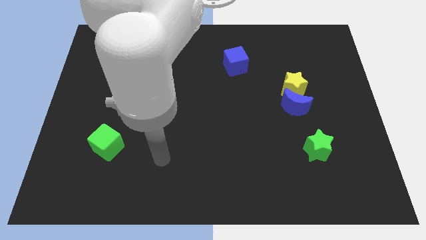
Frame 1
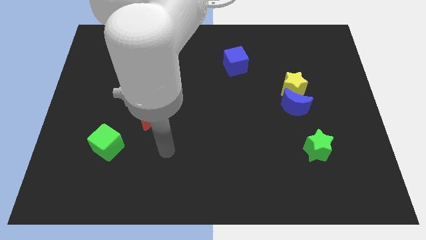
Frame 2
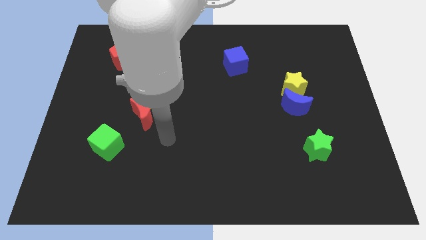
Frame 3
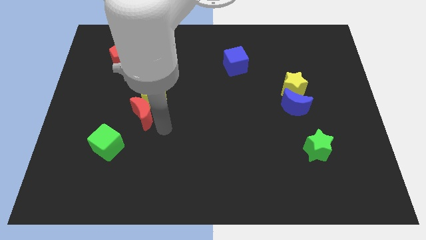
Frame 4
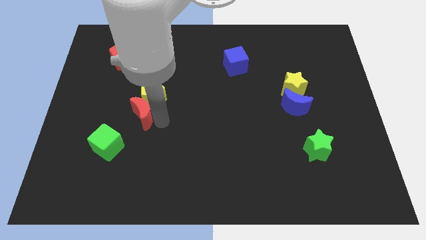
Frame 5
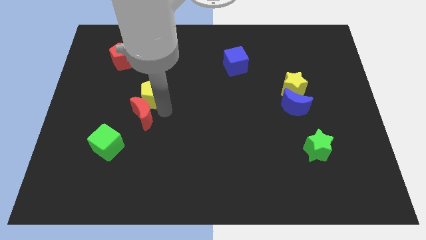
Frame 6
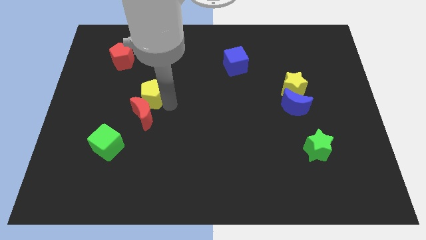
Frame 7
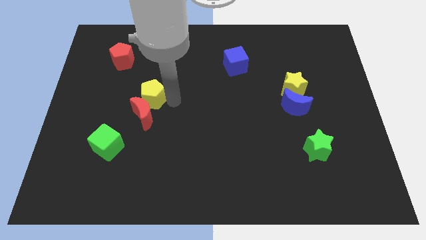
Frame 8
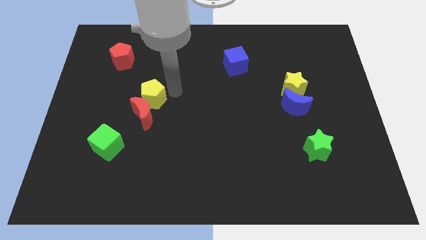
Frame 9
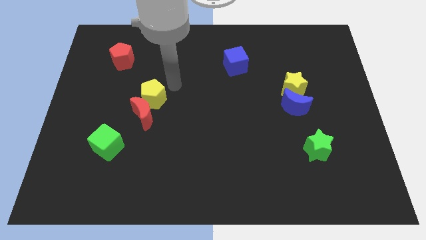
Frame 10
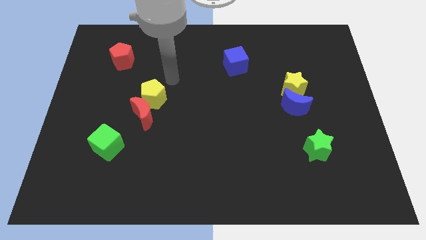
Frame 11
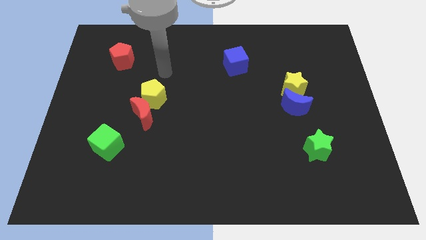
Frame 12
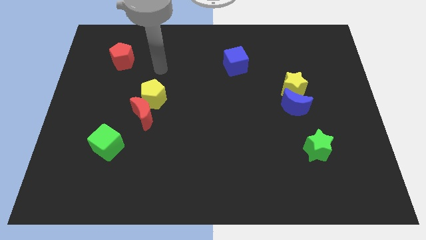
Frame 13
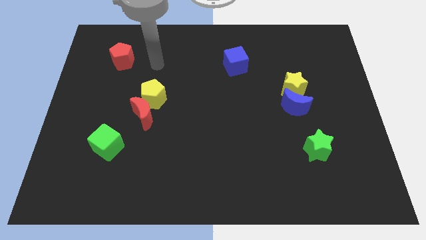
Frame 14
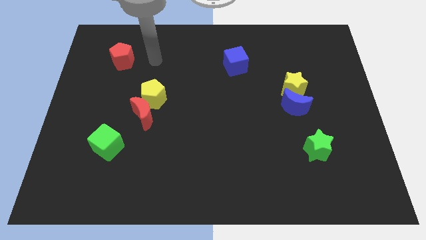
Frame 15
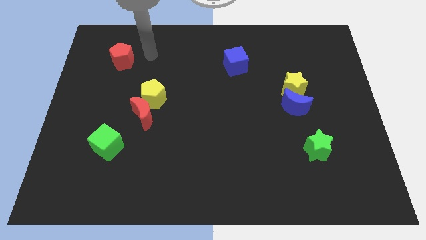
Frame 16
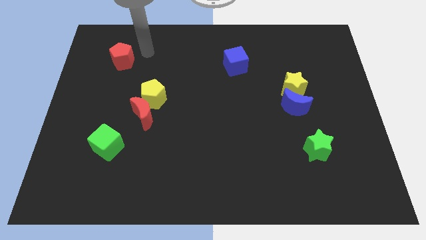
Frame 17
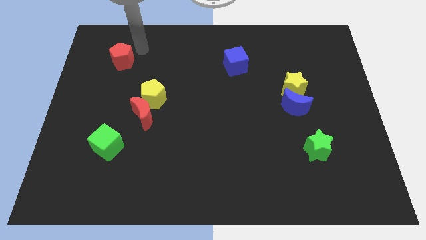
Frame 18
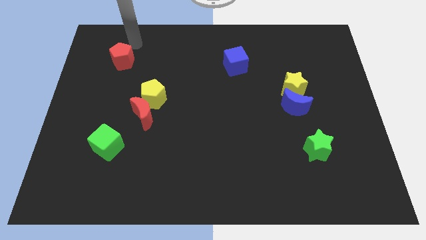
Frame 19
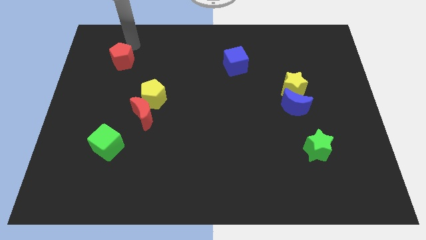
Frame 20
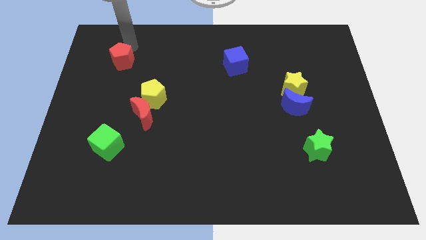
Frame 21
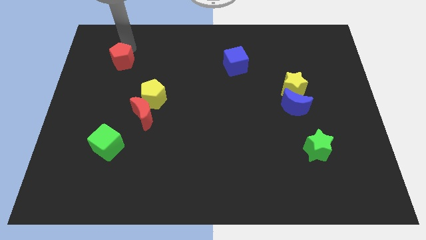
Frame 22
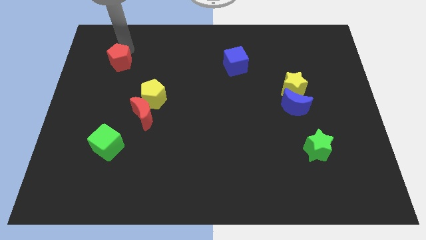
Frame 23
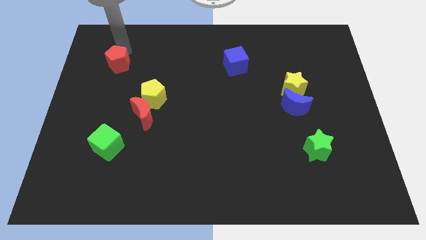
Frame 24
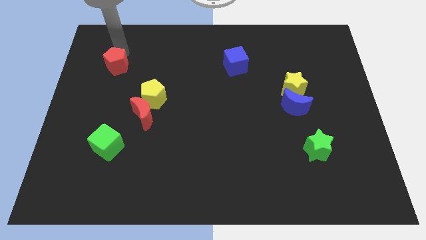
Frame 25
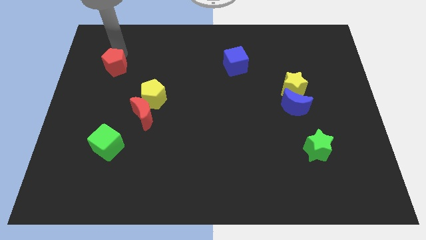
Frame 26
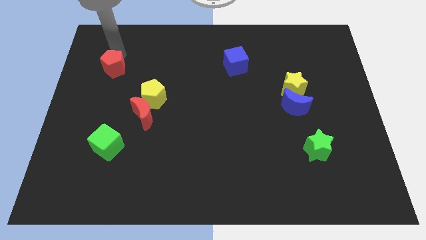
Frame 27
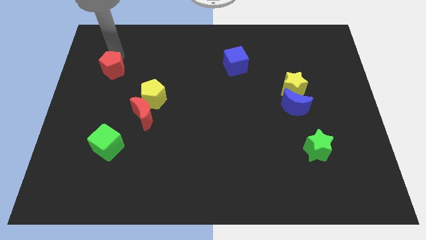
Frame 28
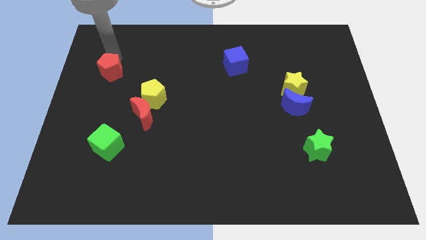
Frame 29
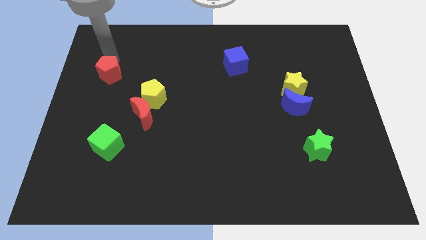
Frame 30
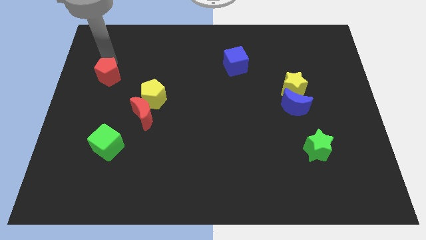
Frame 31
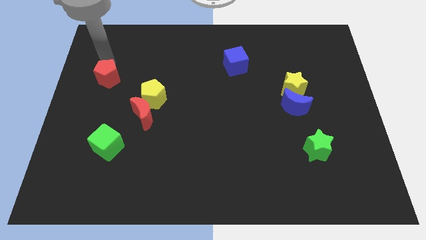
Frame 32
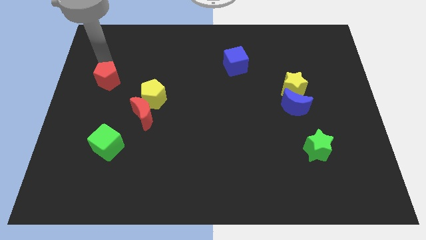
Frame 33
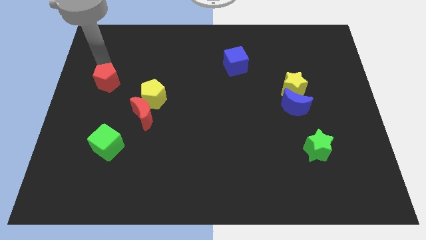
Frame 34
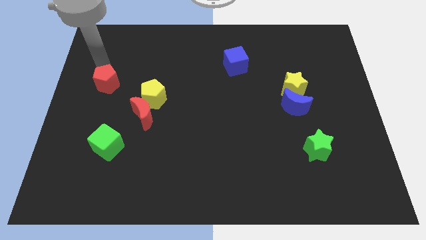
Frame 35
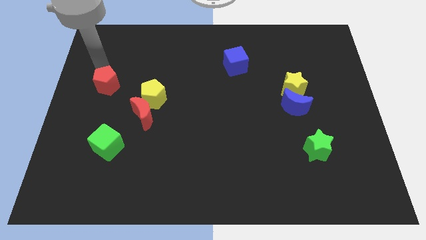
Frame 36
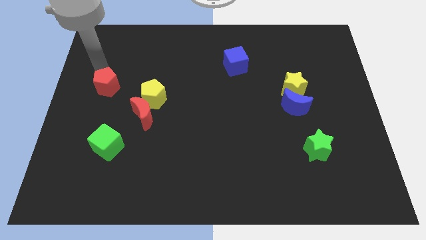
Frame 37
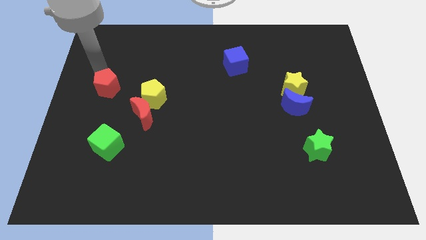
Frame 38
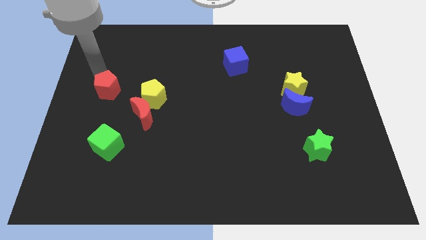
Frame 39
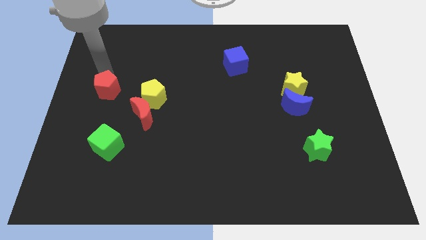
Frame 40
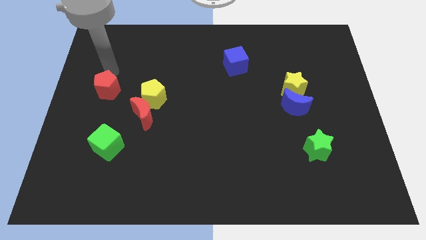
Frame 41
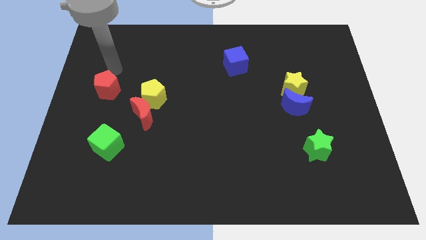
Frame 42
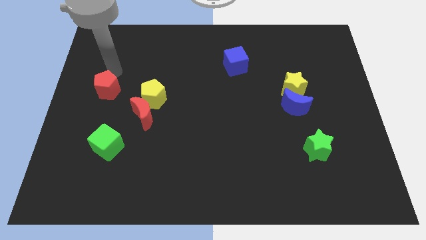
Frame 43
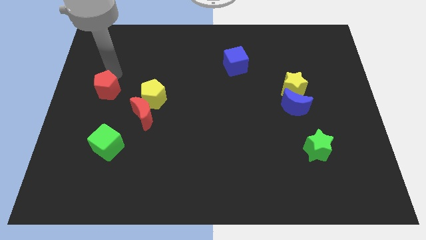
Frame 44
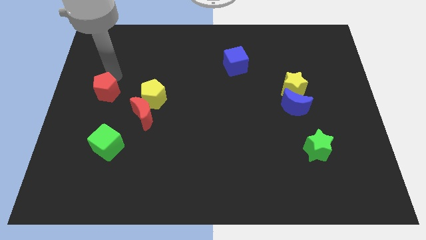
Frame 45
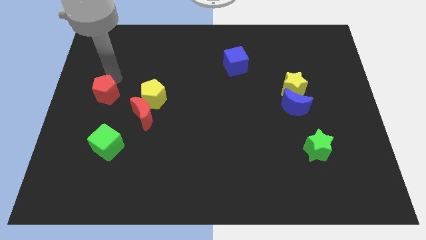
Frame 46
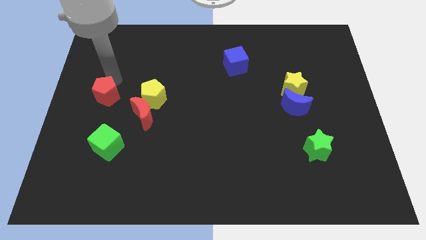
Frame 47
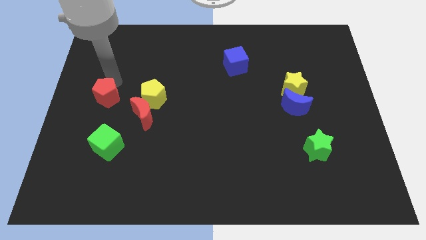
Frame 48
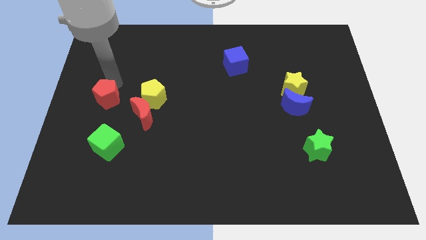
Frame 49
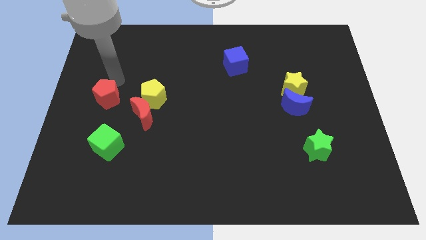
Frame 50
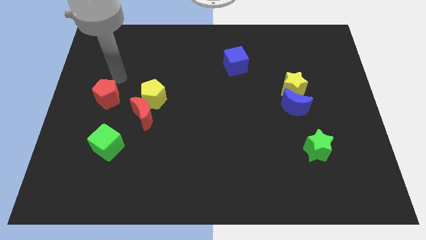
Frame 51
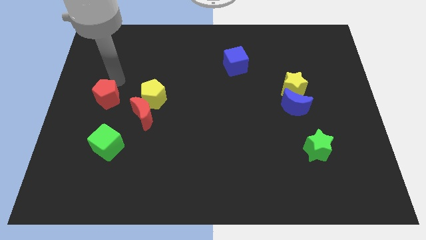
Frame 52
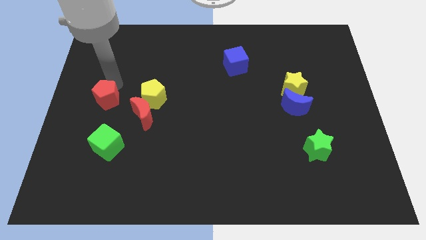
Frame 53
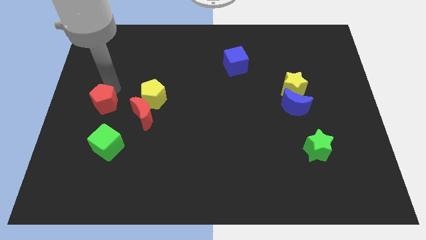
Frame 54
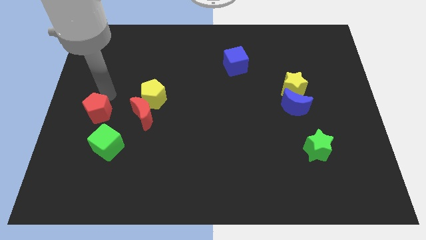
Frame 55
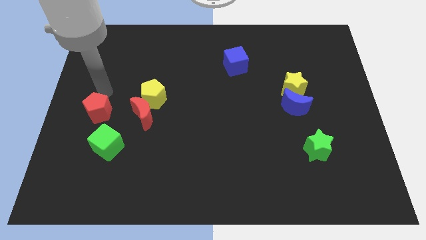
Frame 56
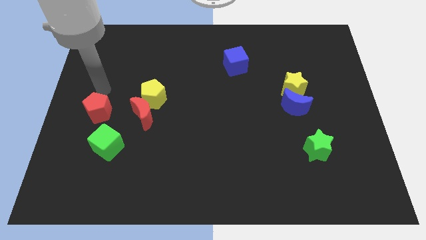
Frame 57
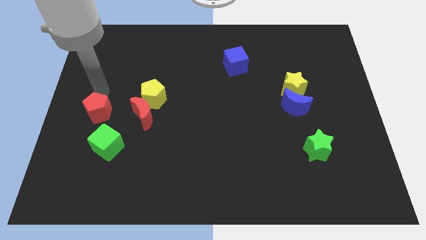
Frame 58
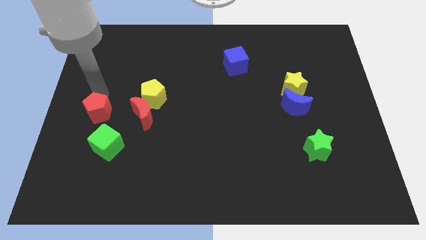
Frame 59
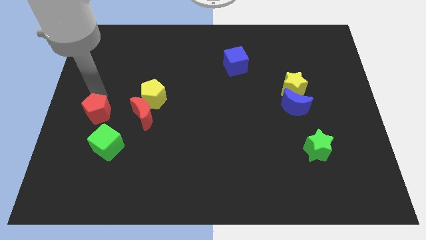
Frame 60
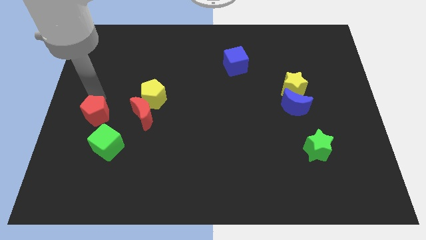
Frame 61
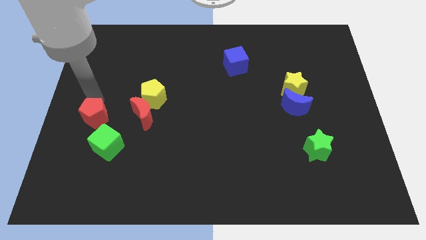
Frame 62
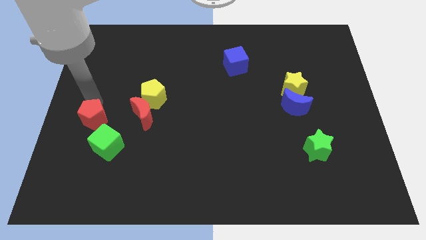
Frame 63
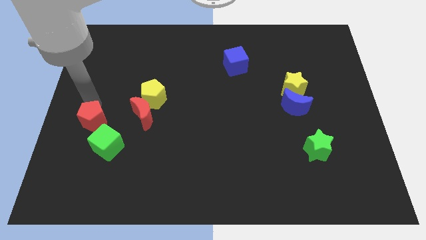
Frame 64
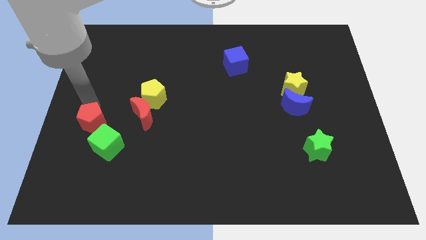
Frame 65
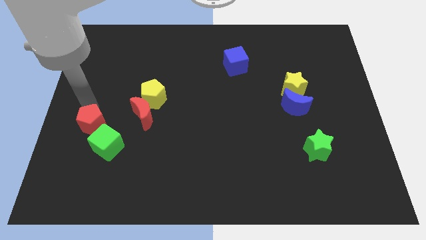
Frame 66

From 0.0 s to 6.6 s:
slide the red pentagon down

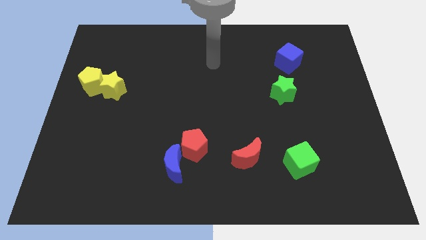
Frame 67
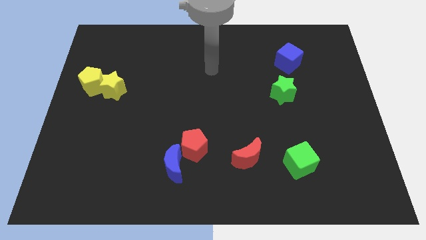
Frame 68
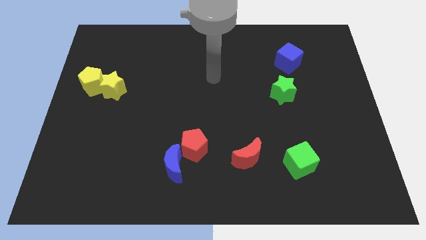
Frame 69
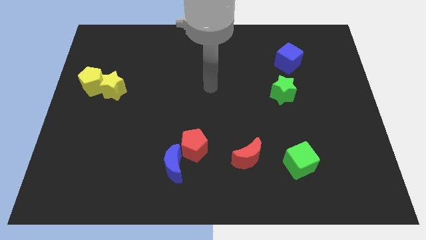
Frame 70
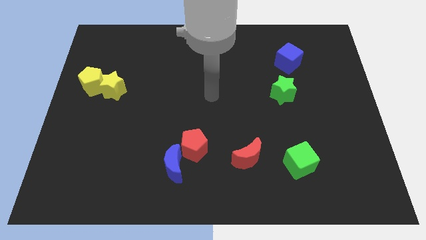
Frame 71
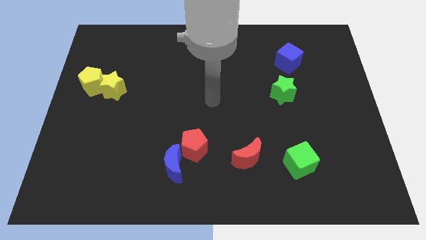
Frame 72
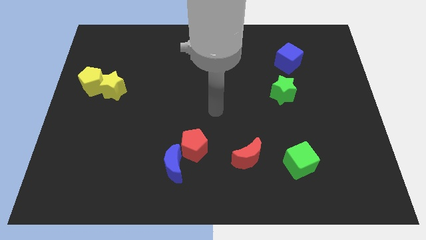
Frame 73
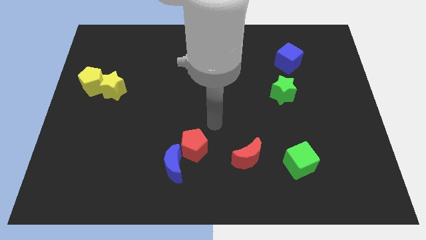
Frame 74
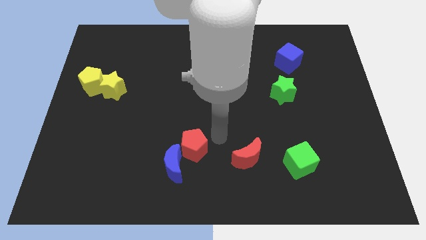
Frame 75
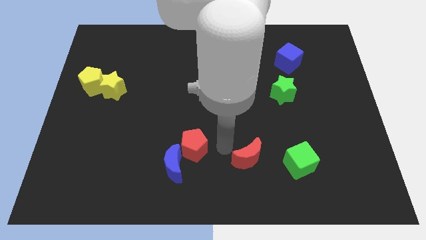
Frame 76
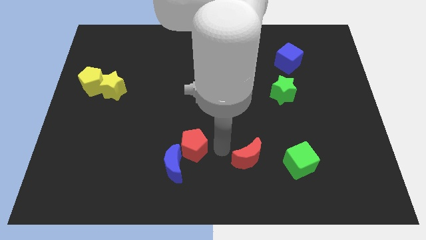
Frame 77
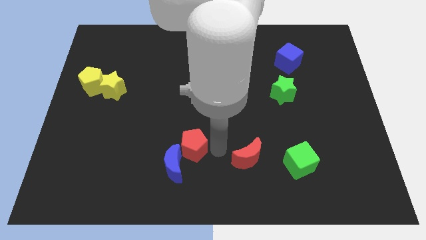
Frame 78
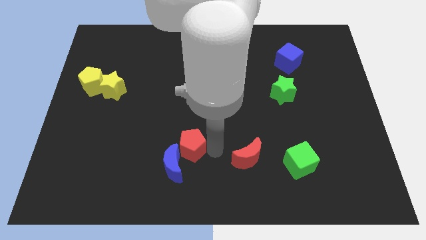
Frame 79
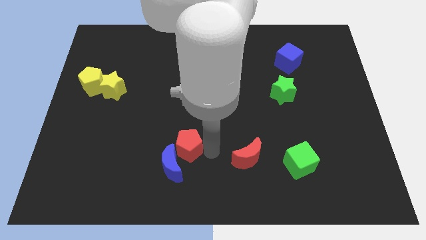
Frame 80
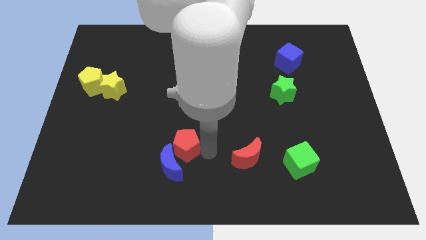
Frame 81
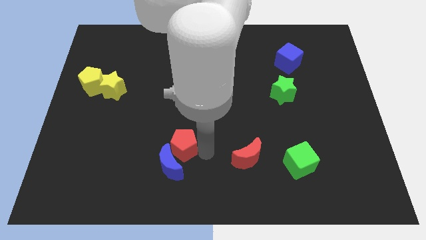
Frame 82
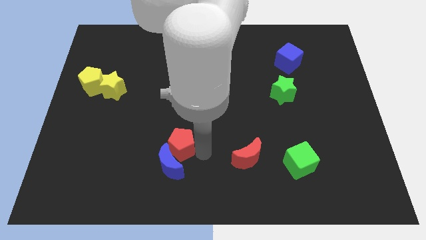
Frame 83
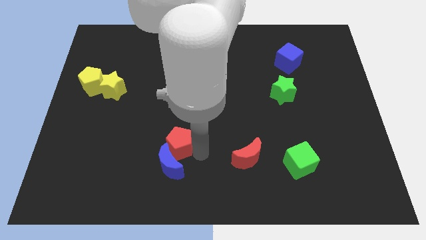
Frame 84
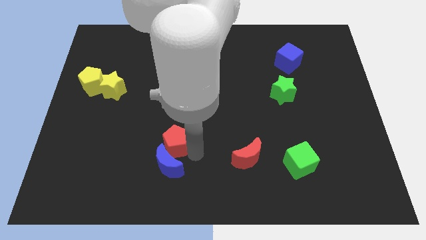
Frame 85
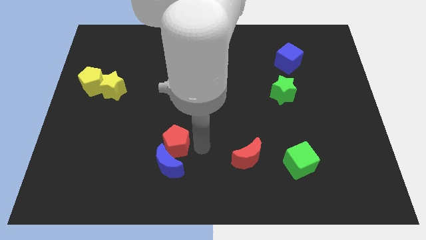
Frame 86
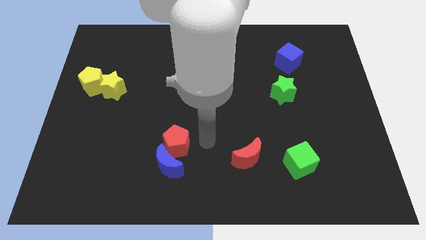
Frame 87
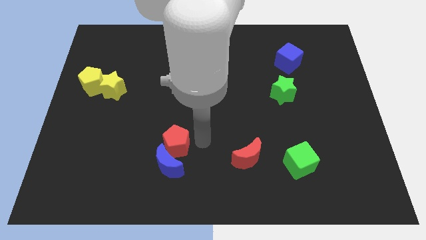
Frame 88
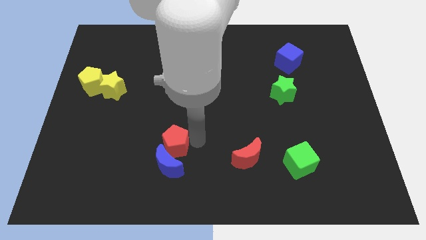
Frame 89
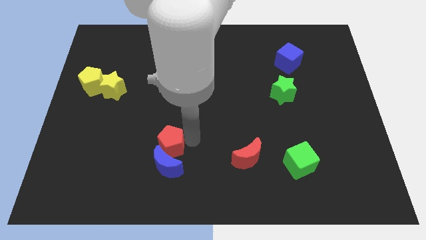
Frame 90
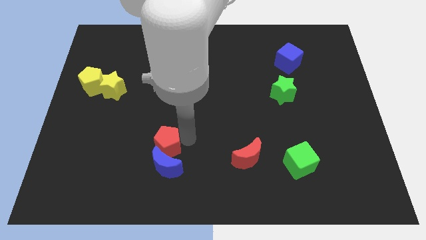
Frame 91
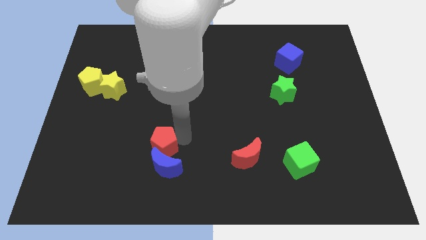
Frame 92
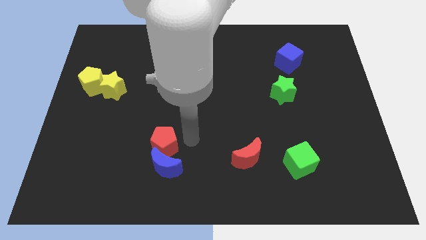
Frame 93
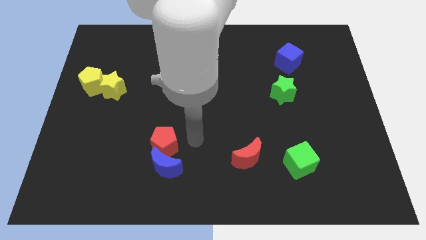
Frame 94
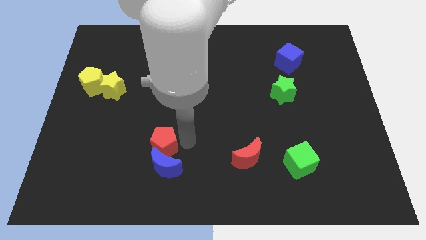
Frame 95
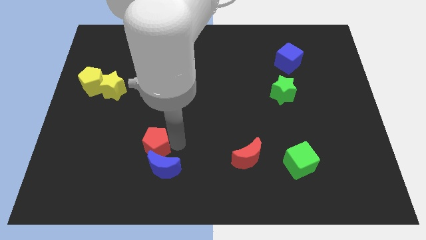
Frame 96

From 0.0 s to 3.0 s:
push the red pentagon somewhat left
